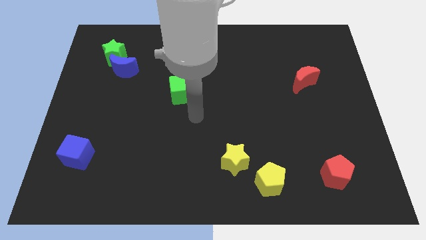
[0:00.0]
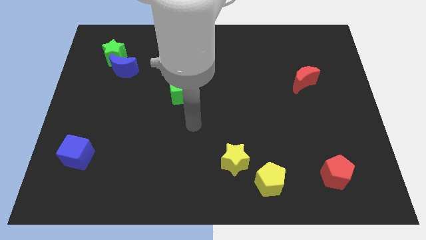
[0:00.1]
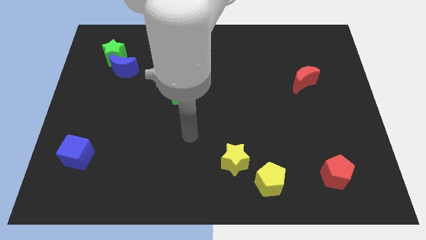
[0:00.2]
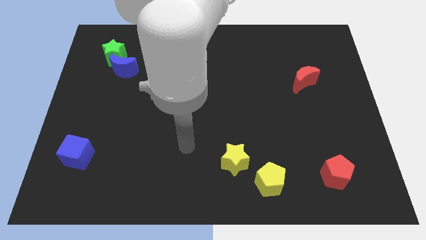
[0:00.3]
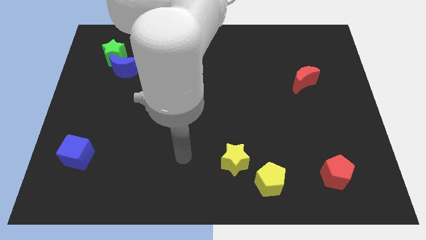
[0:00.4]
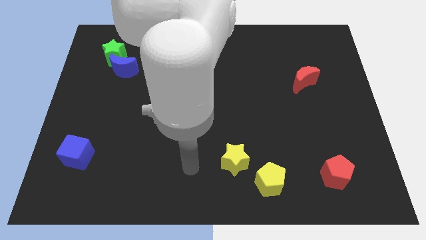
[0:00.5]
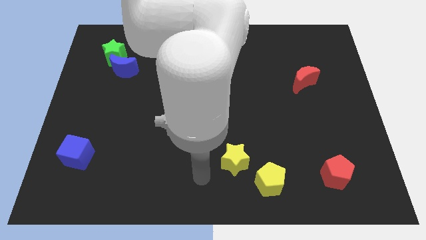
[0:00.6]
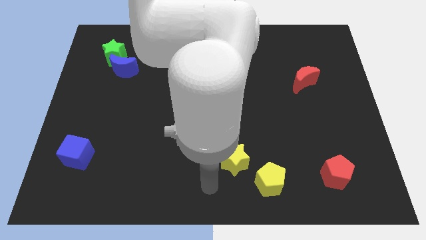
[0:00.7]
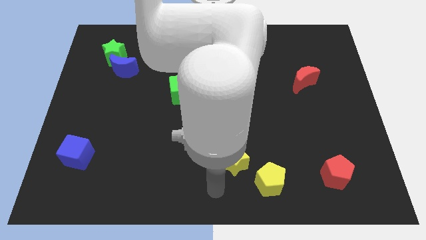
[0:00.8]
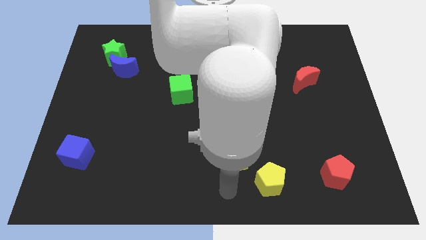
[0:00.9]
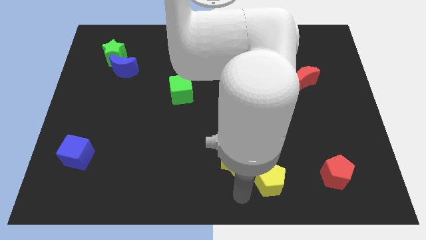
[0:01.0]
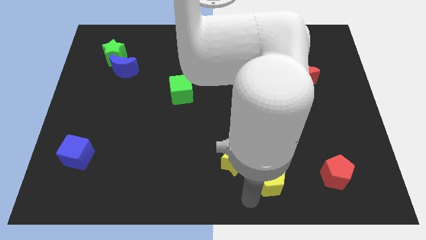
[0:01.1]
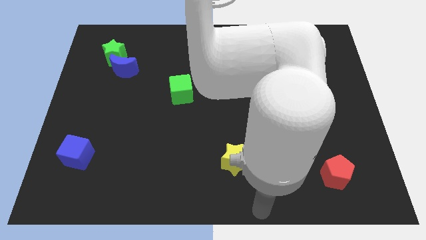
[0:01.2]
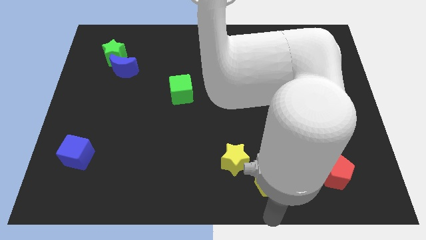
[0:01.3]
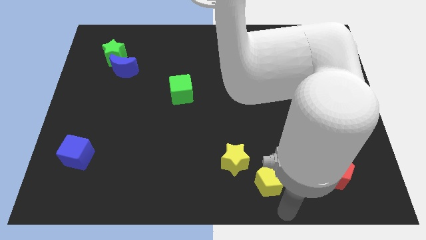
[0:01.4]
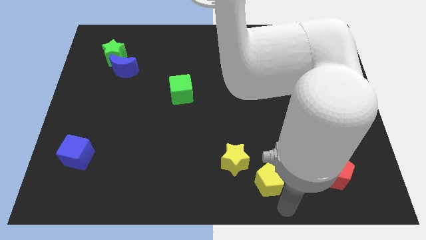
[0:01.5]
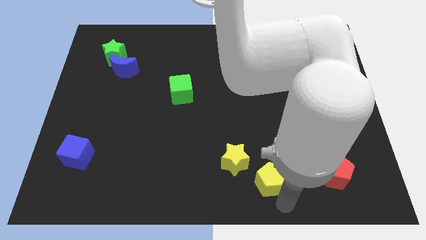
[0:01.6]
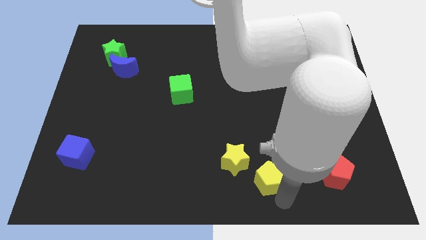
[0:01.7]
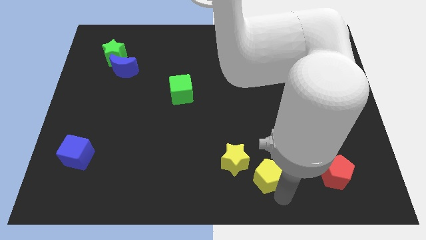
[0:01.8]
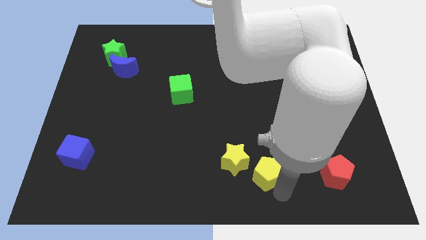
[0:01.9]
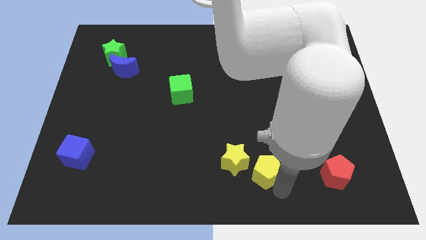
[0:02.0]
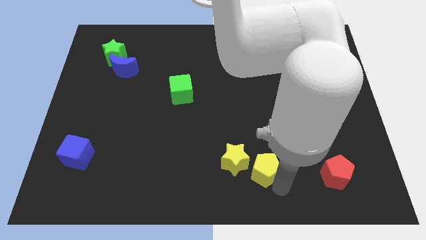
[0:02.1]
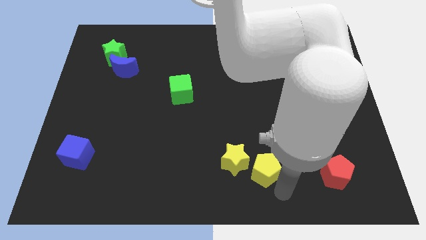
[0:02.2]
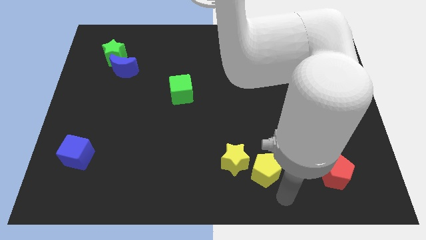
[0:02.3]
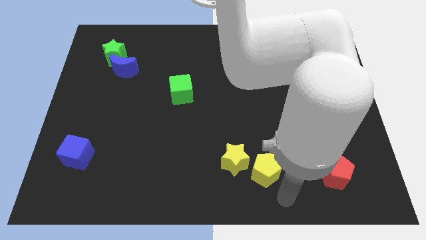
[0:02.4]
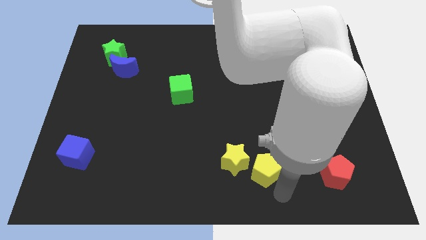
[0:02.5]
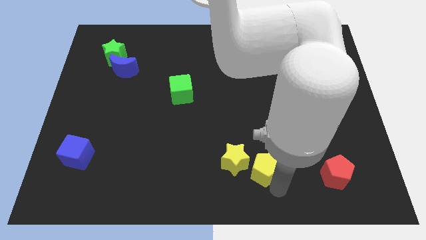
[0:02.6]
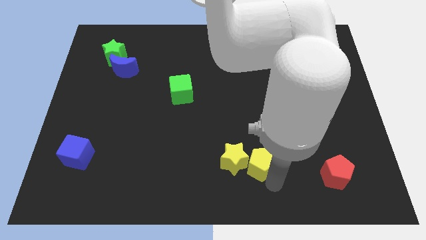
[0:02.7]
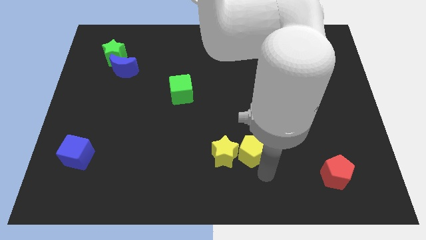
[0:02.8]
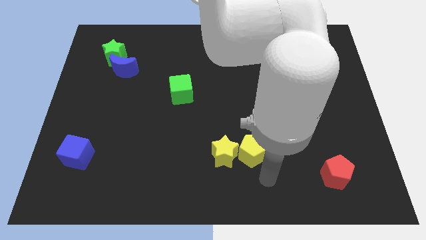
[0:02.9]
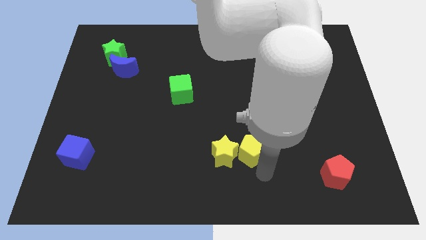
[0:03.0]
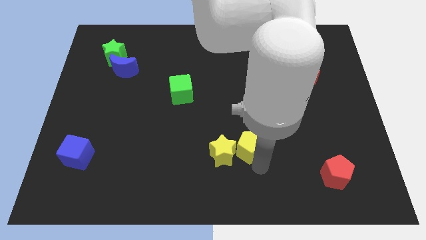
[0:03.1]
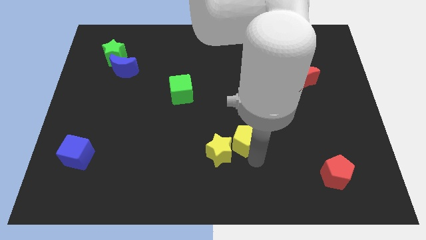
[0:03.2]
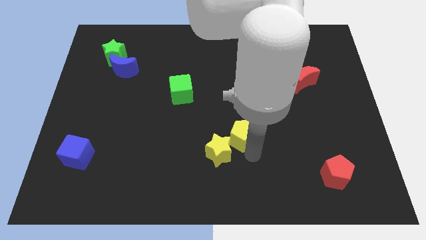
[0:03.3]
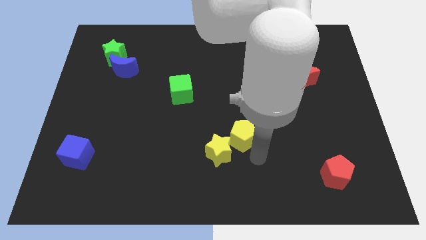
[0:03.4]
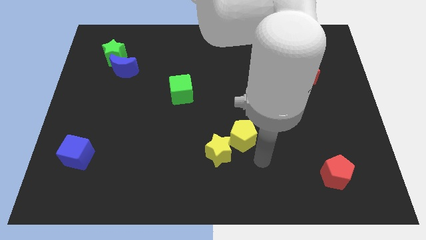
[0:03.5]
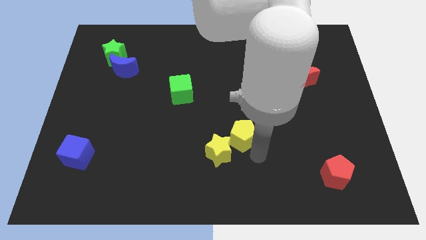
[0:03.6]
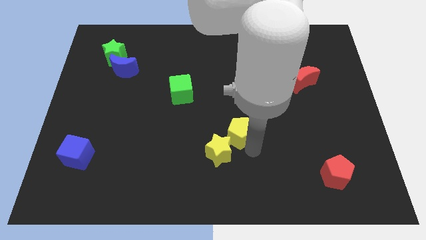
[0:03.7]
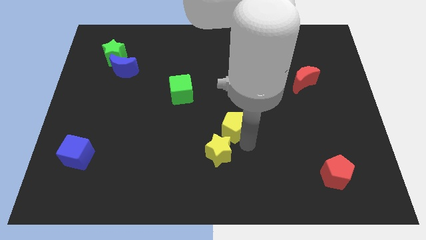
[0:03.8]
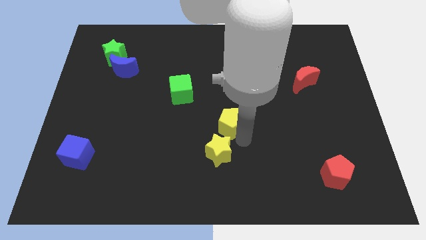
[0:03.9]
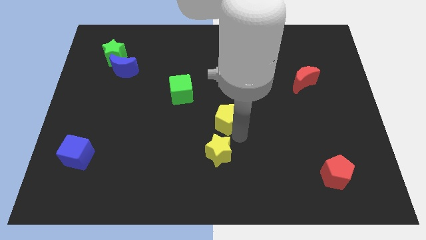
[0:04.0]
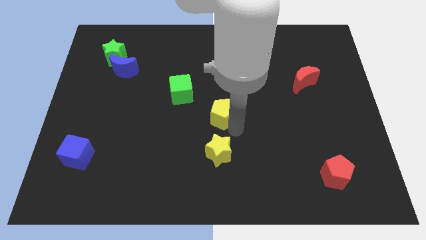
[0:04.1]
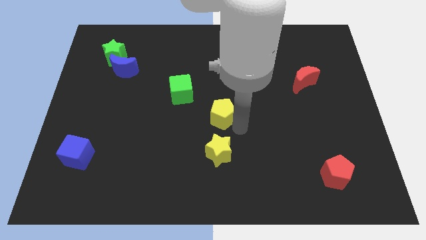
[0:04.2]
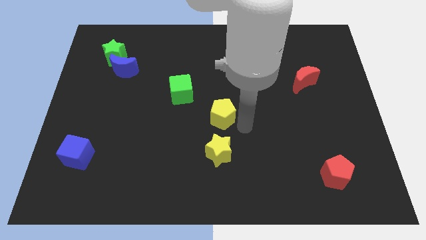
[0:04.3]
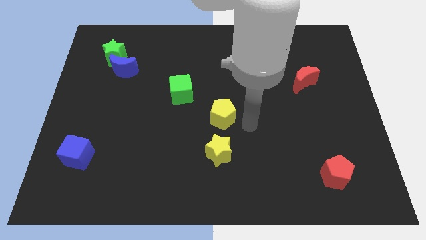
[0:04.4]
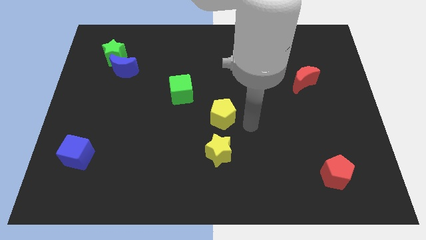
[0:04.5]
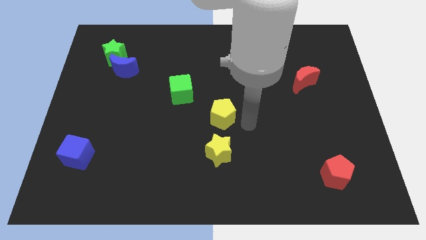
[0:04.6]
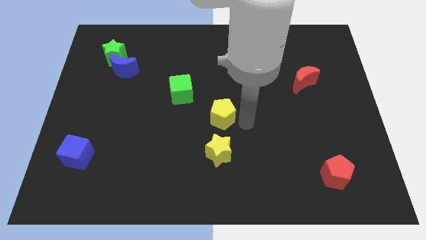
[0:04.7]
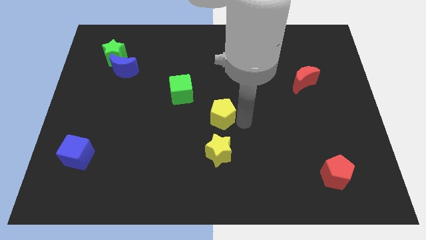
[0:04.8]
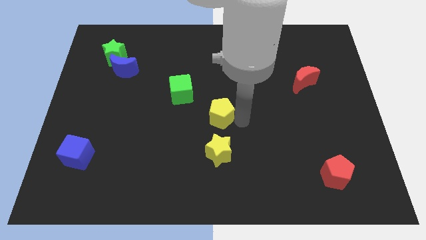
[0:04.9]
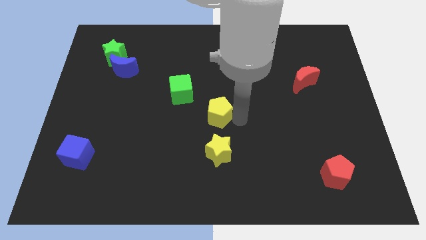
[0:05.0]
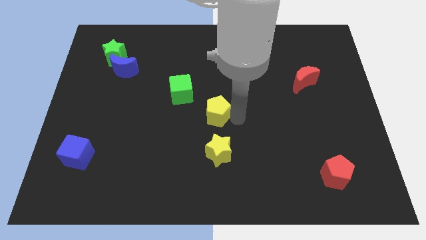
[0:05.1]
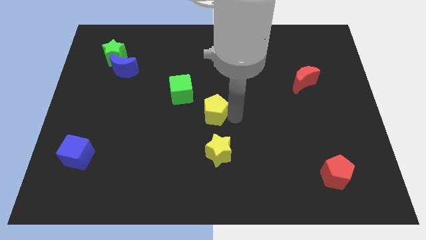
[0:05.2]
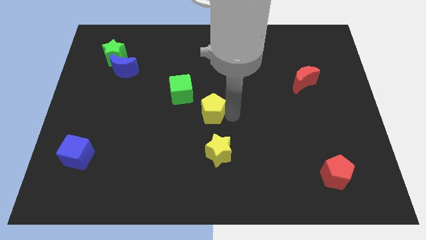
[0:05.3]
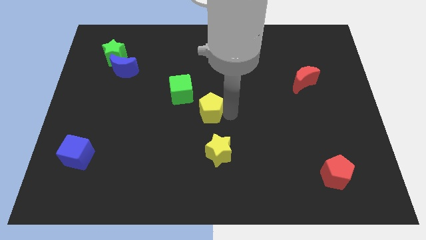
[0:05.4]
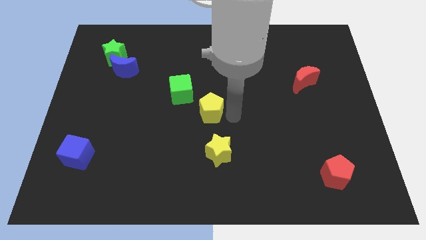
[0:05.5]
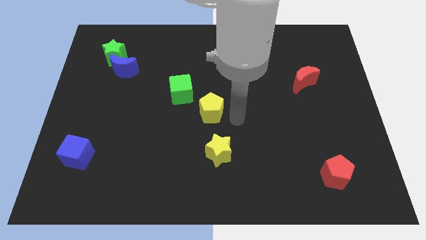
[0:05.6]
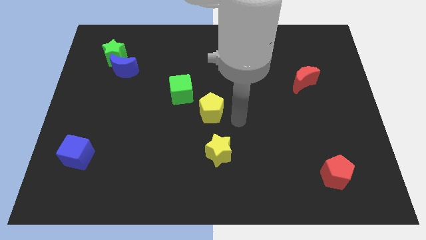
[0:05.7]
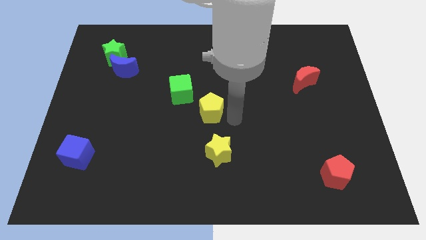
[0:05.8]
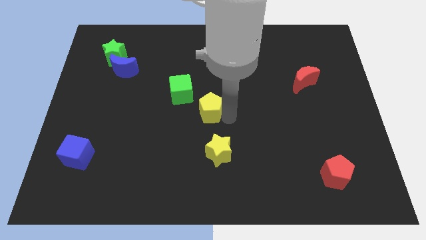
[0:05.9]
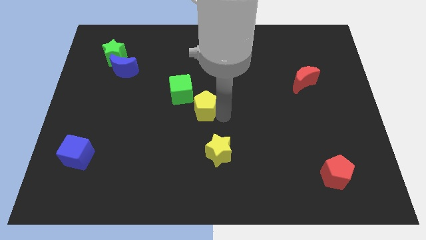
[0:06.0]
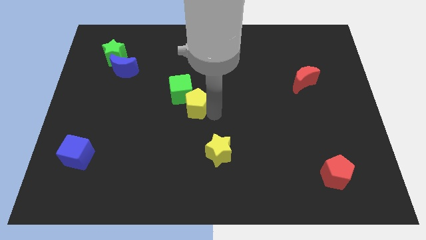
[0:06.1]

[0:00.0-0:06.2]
put the yellow pentagon towards the green cube

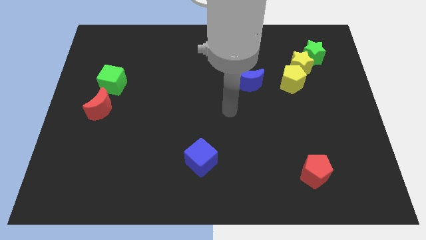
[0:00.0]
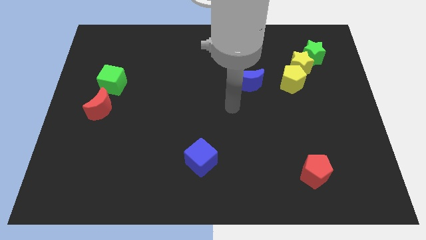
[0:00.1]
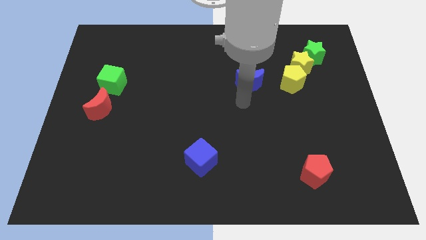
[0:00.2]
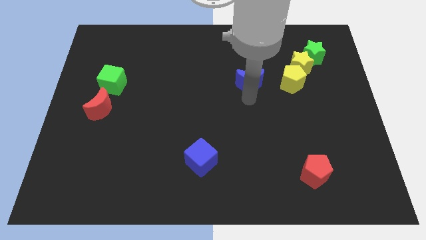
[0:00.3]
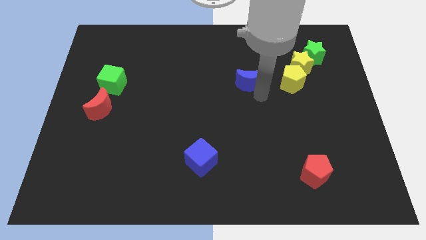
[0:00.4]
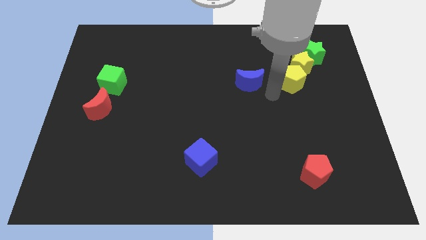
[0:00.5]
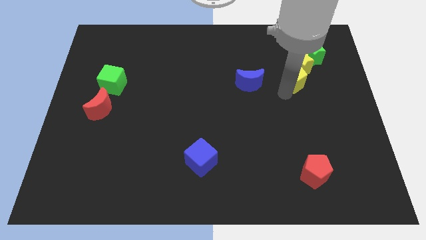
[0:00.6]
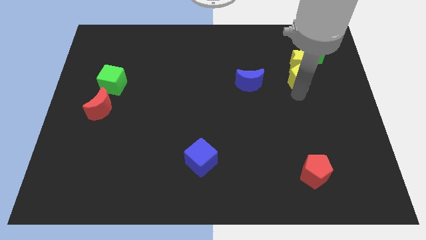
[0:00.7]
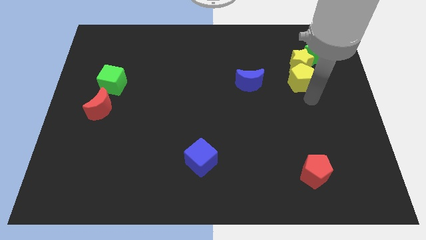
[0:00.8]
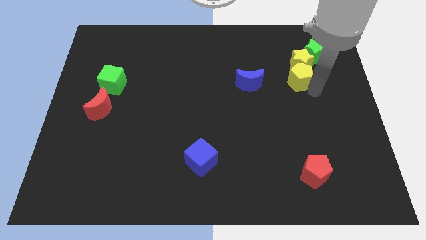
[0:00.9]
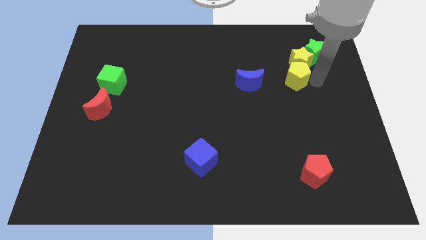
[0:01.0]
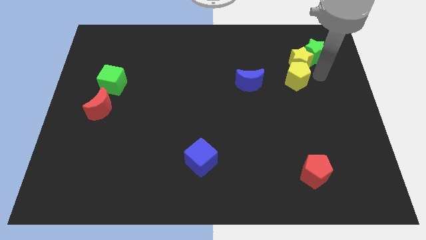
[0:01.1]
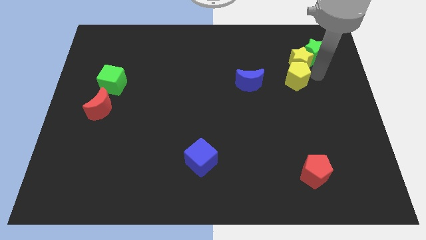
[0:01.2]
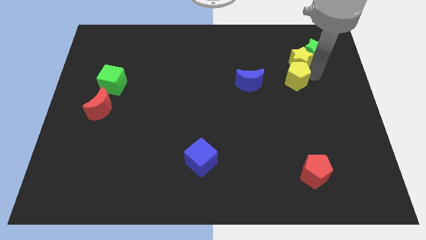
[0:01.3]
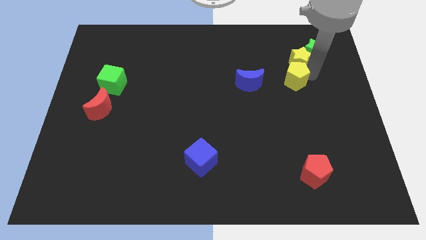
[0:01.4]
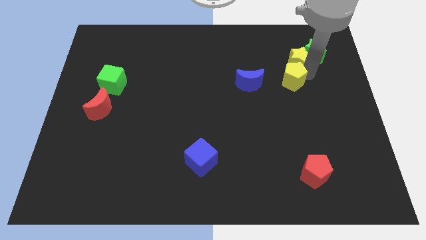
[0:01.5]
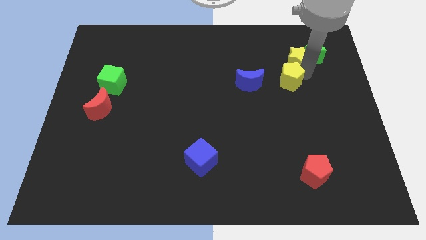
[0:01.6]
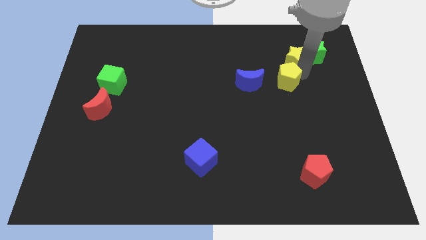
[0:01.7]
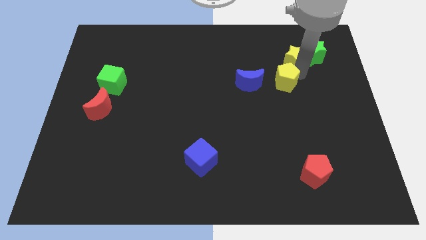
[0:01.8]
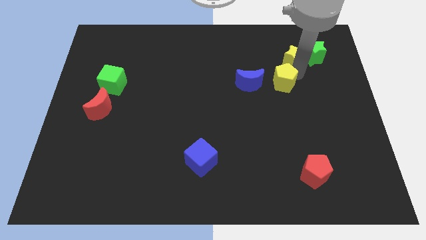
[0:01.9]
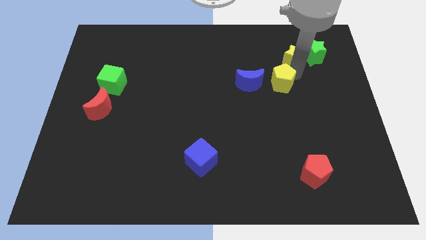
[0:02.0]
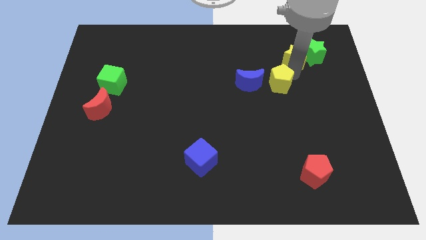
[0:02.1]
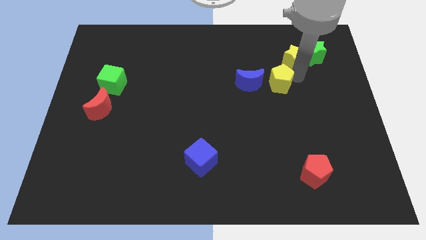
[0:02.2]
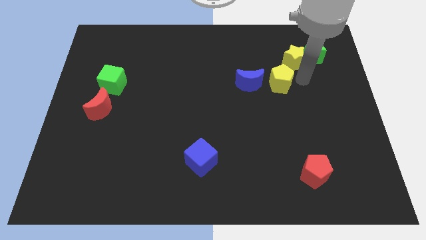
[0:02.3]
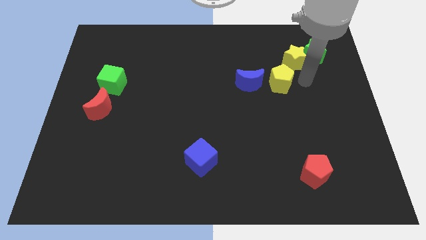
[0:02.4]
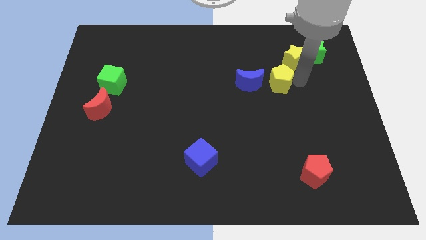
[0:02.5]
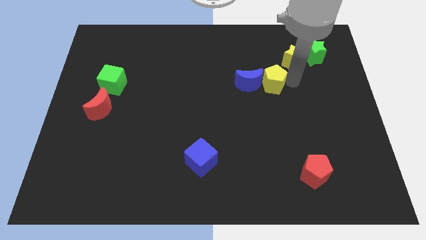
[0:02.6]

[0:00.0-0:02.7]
move the yellow pentagon next to the blue moon
